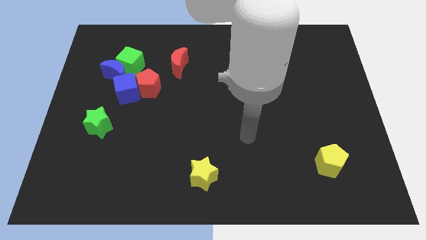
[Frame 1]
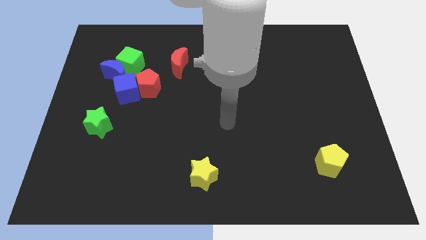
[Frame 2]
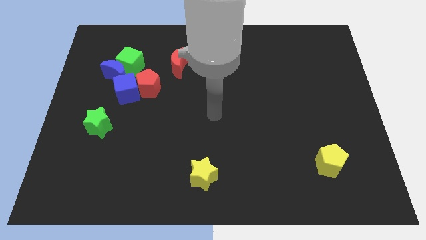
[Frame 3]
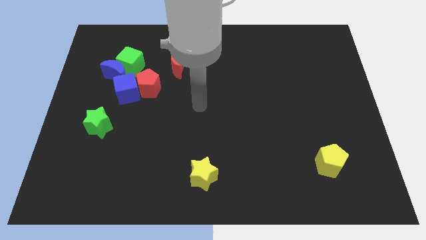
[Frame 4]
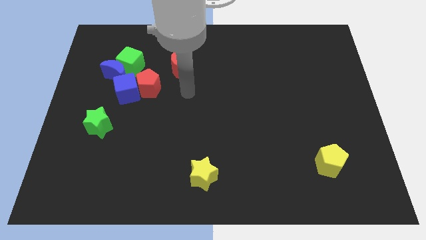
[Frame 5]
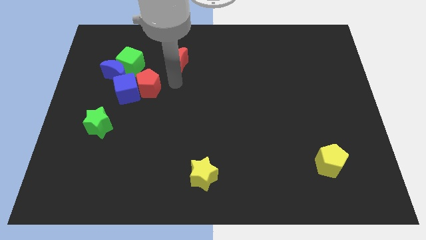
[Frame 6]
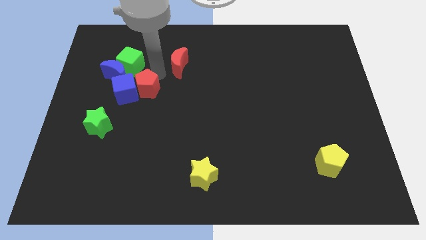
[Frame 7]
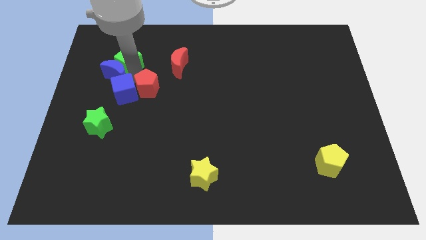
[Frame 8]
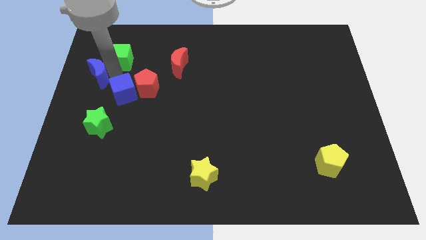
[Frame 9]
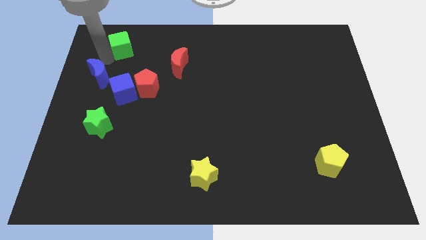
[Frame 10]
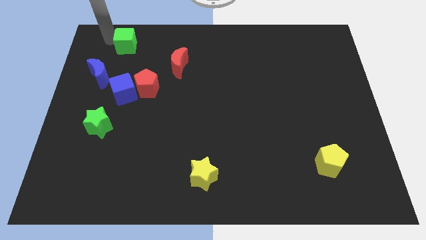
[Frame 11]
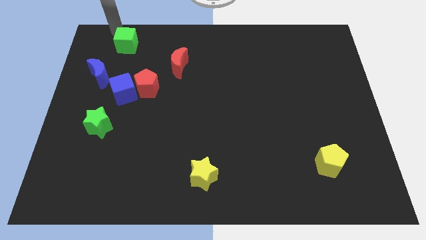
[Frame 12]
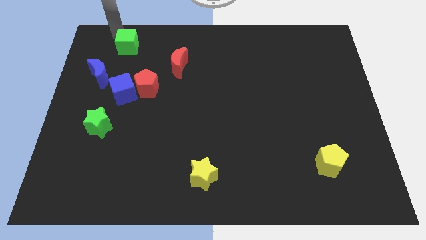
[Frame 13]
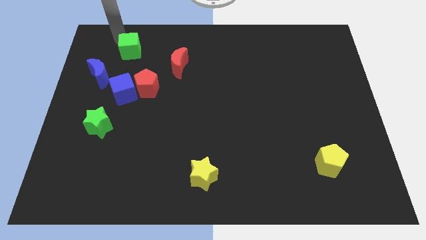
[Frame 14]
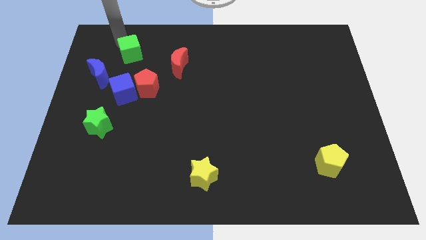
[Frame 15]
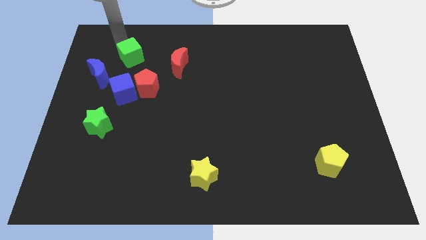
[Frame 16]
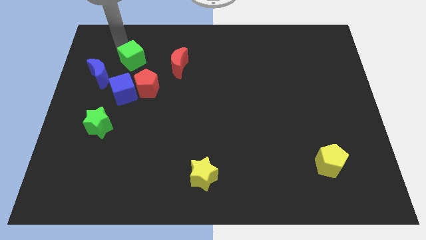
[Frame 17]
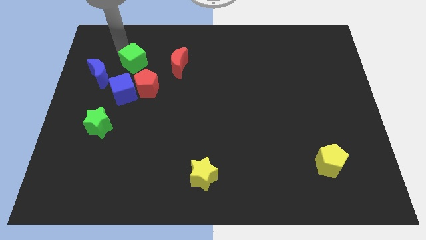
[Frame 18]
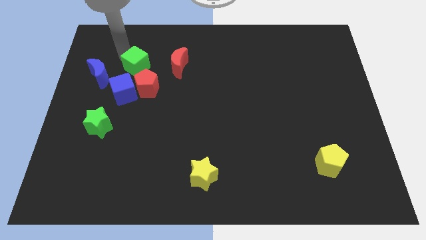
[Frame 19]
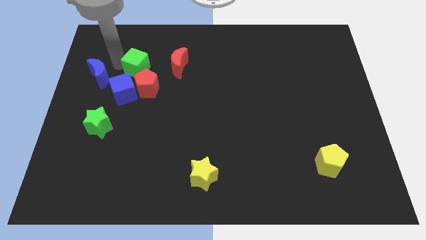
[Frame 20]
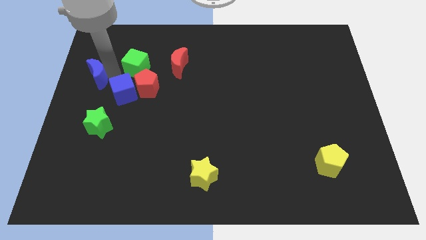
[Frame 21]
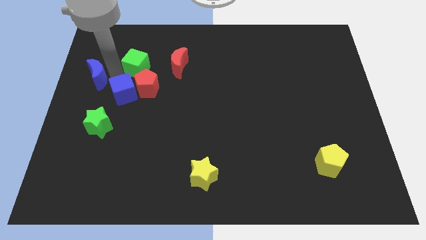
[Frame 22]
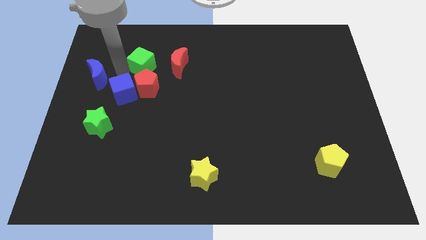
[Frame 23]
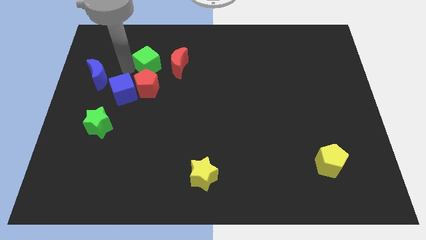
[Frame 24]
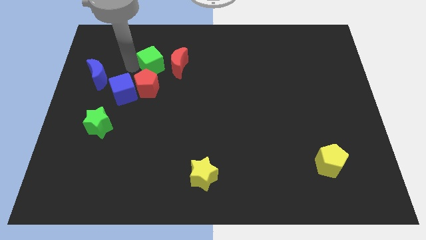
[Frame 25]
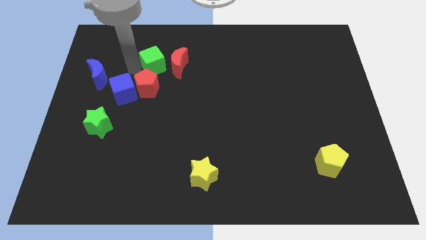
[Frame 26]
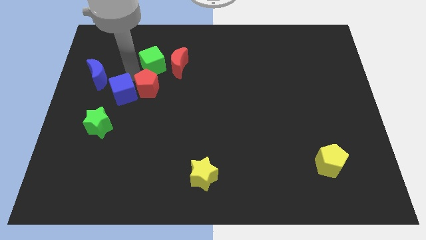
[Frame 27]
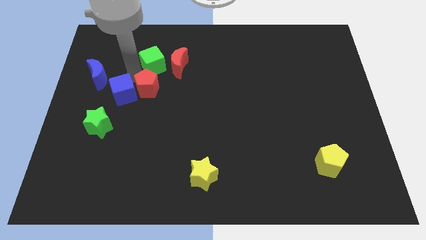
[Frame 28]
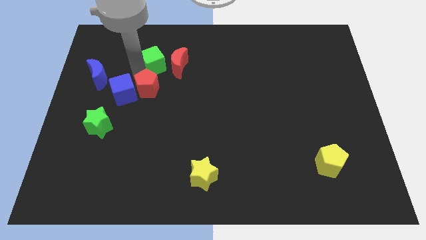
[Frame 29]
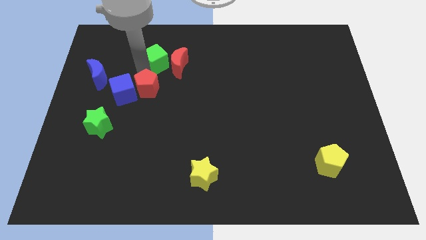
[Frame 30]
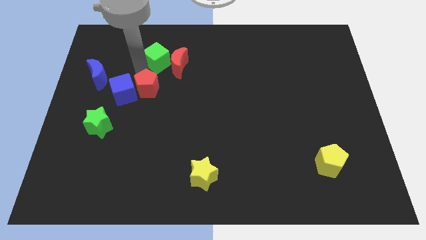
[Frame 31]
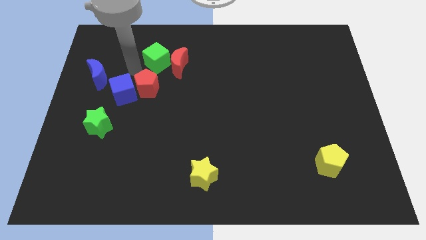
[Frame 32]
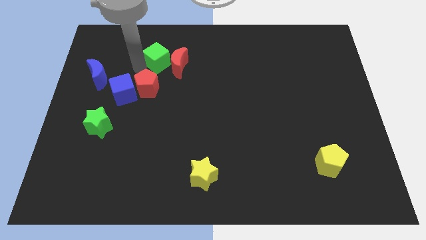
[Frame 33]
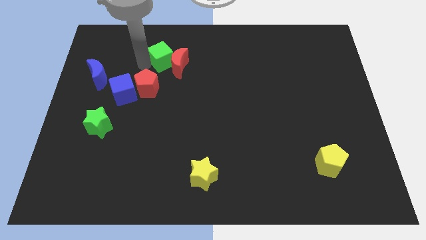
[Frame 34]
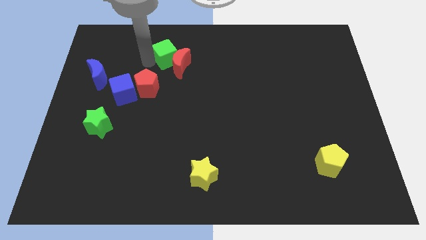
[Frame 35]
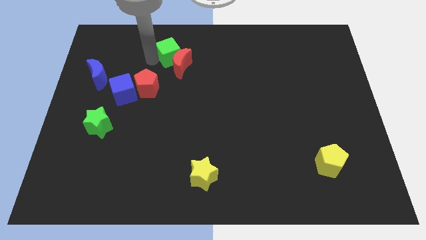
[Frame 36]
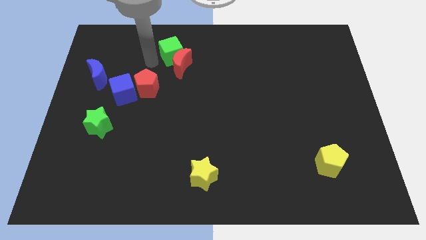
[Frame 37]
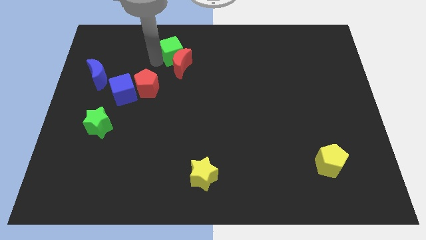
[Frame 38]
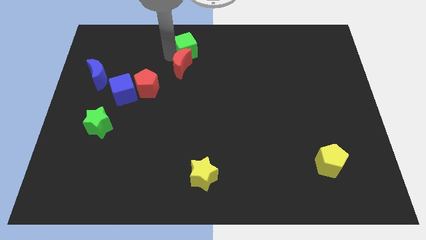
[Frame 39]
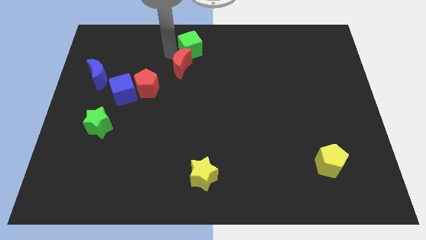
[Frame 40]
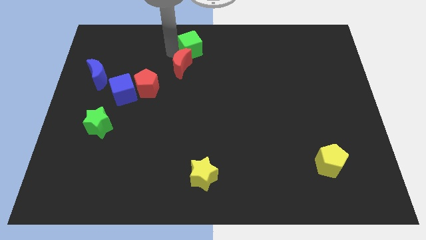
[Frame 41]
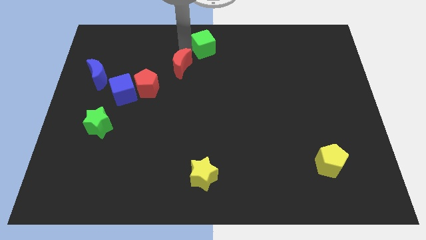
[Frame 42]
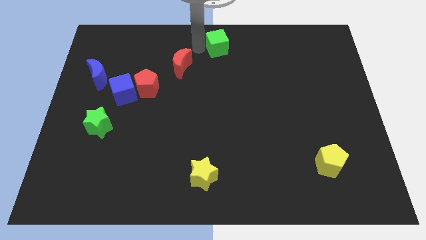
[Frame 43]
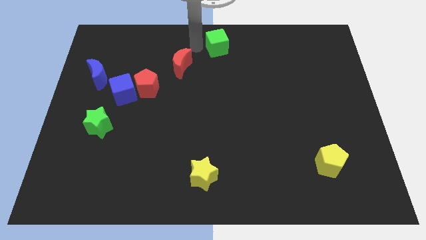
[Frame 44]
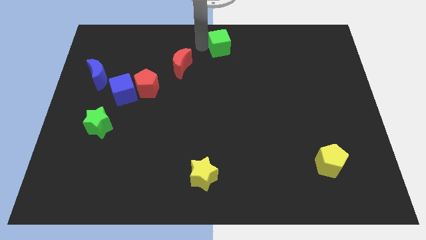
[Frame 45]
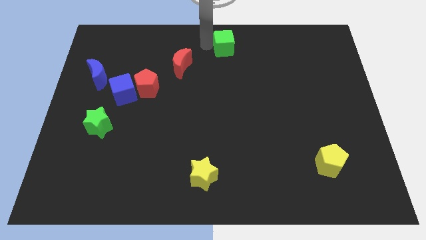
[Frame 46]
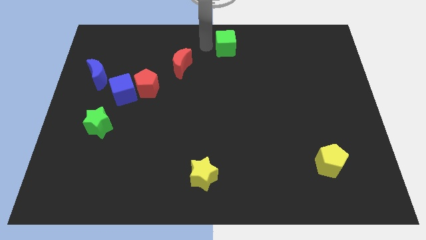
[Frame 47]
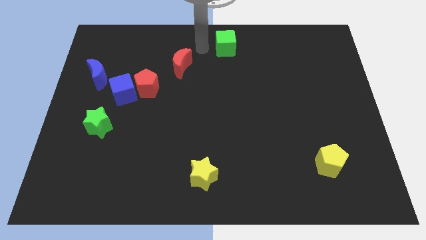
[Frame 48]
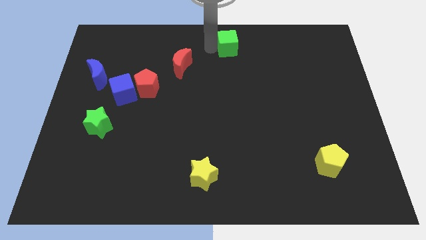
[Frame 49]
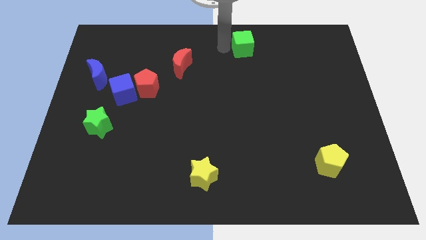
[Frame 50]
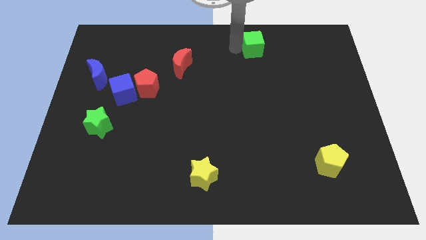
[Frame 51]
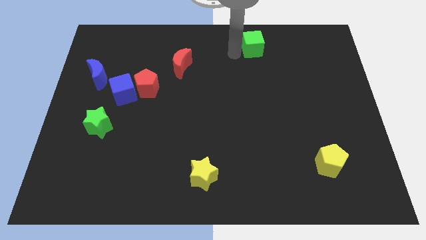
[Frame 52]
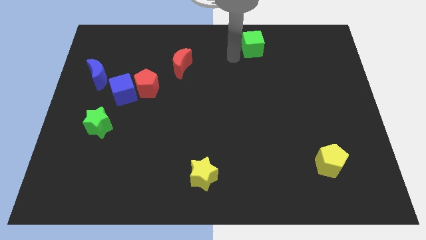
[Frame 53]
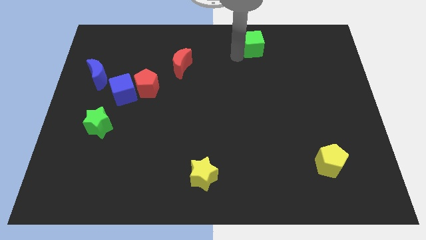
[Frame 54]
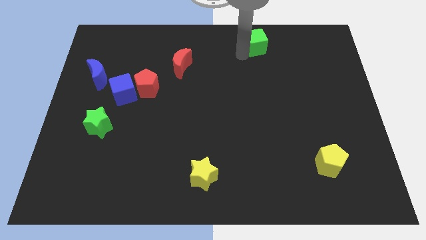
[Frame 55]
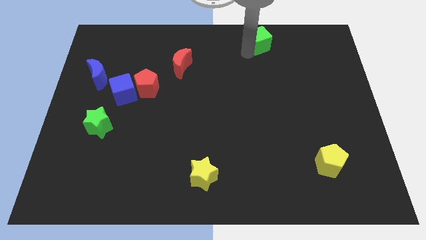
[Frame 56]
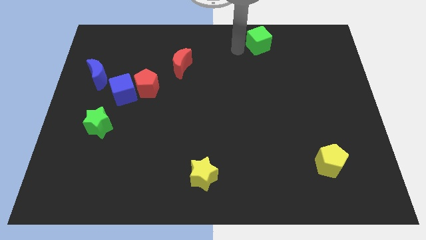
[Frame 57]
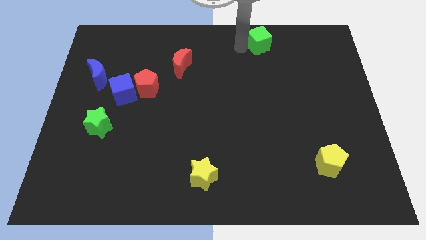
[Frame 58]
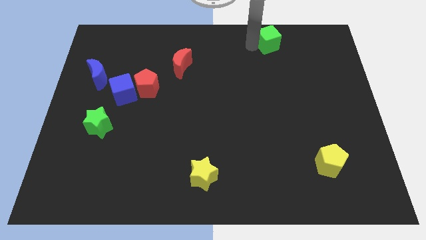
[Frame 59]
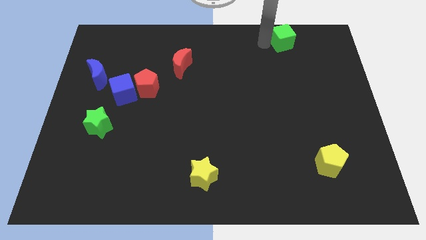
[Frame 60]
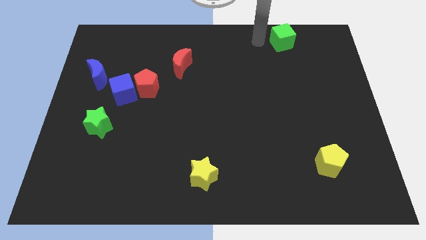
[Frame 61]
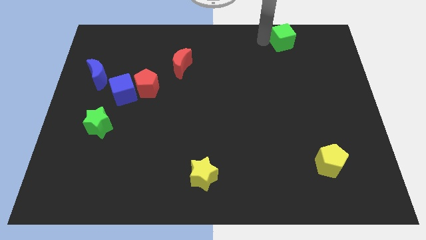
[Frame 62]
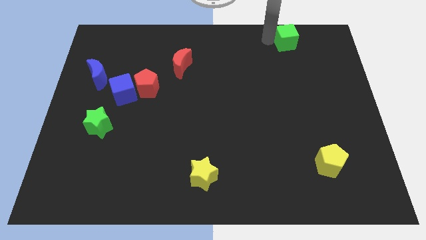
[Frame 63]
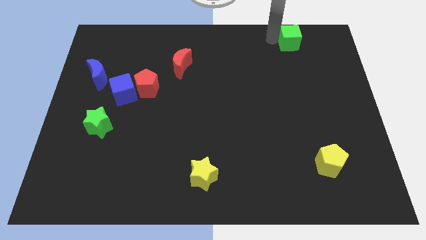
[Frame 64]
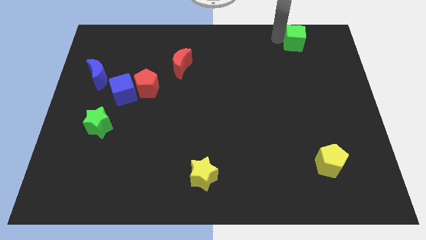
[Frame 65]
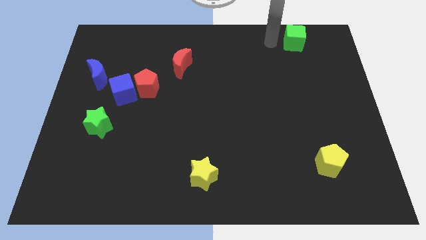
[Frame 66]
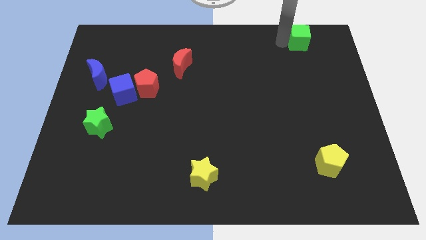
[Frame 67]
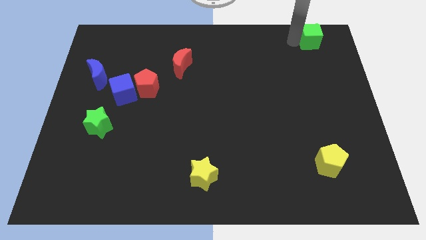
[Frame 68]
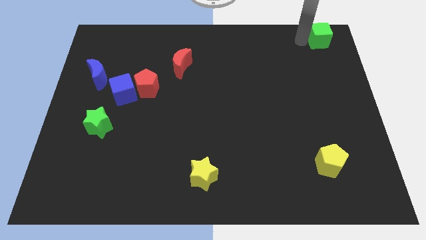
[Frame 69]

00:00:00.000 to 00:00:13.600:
slide the green cube to the top right of the board
